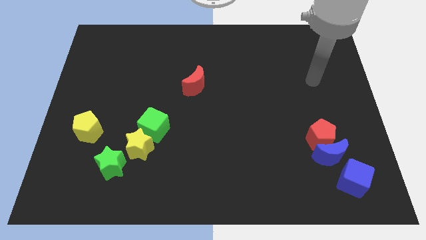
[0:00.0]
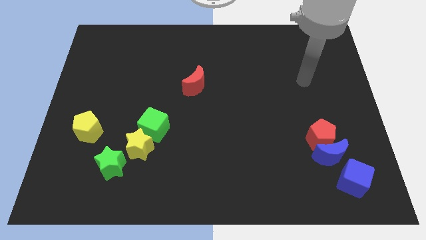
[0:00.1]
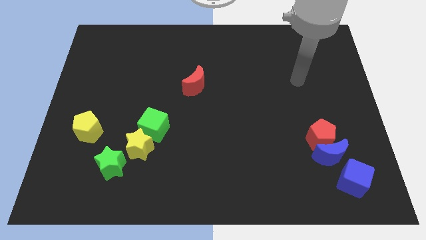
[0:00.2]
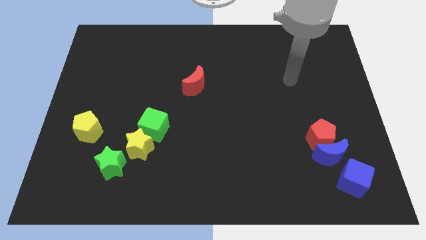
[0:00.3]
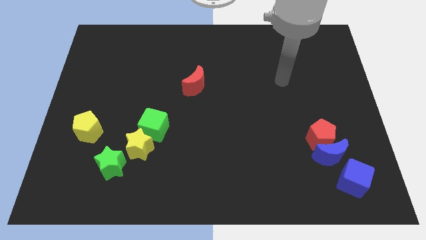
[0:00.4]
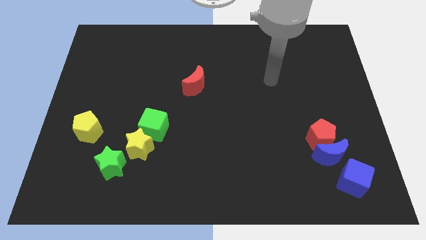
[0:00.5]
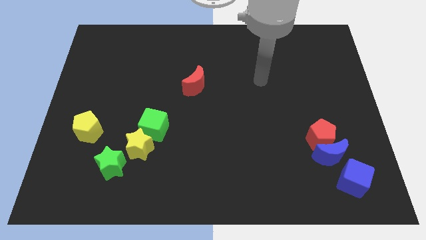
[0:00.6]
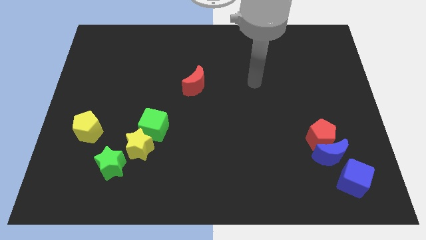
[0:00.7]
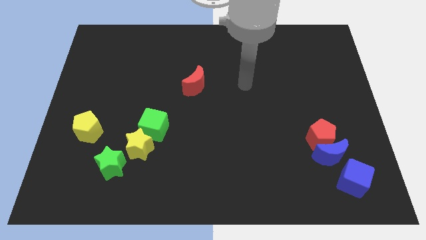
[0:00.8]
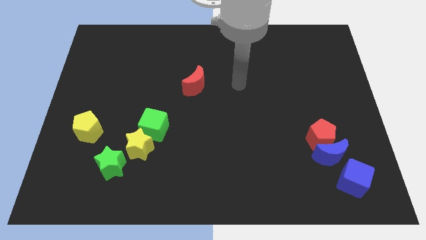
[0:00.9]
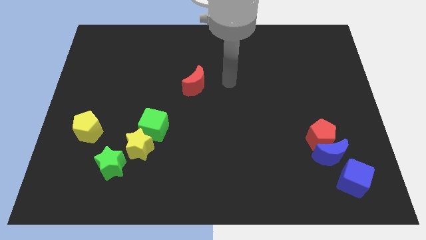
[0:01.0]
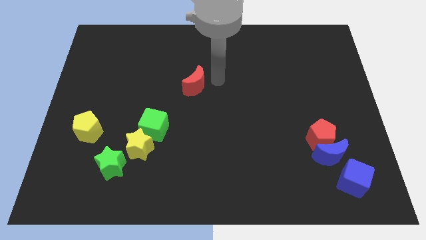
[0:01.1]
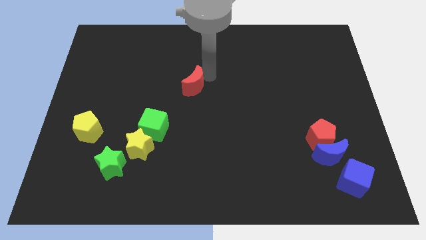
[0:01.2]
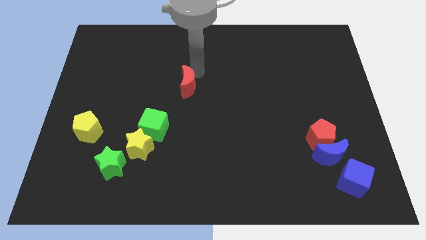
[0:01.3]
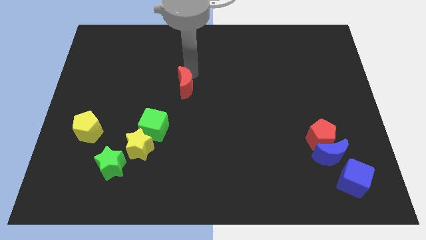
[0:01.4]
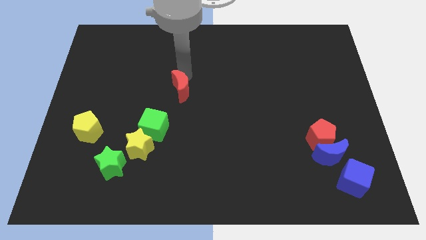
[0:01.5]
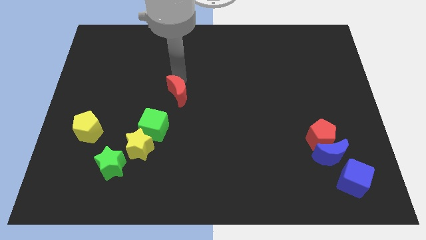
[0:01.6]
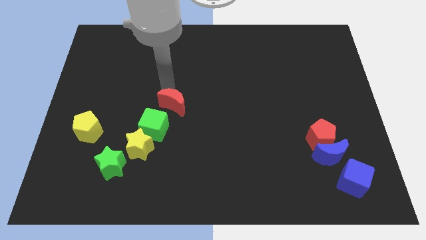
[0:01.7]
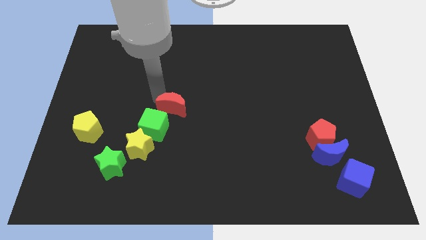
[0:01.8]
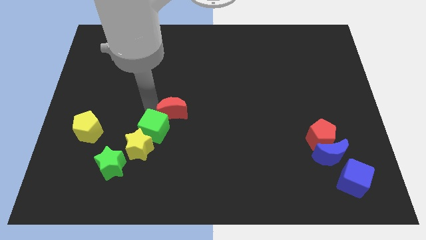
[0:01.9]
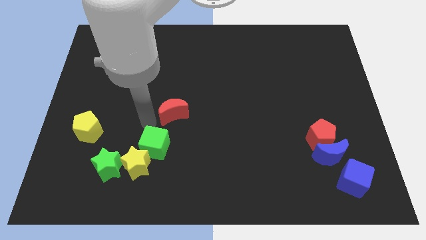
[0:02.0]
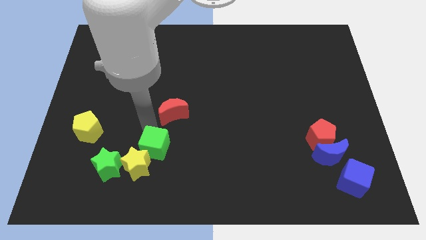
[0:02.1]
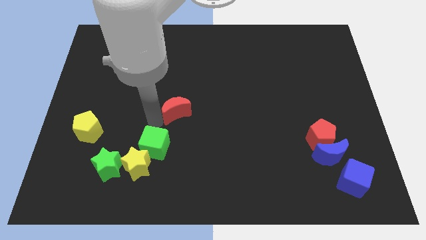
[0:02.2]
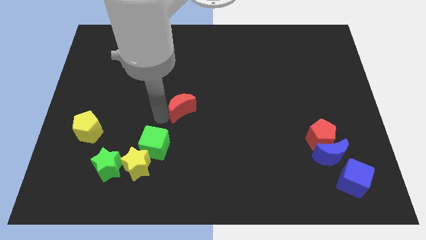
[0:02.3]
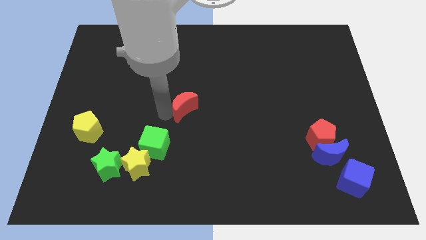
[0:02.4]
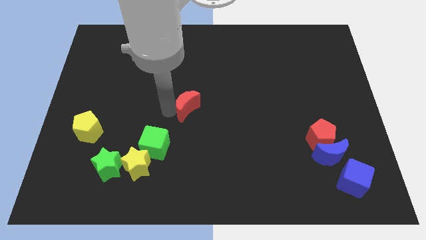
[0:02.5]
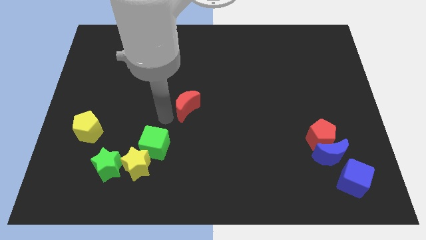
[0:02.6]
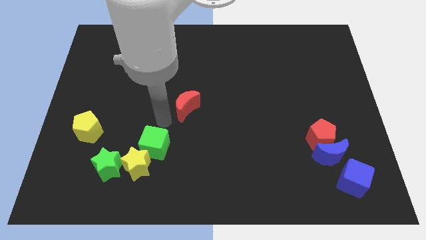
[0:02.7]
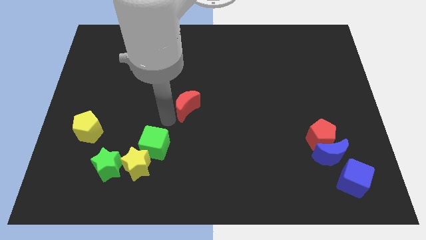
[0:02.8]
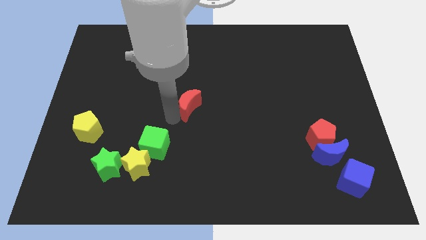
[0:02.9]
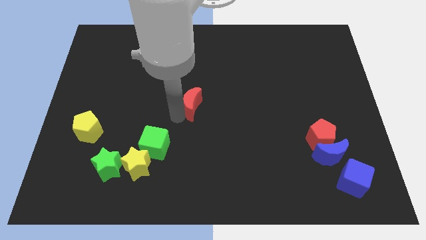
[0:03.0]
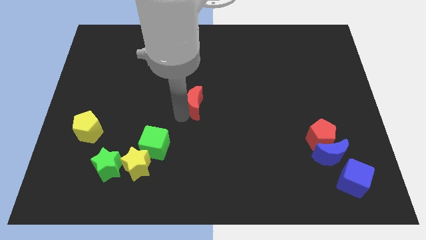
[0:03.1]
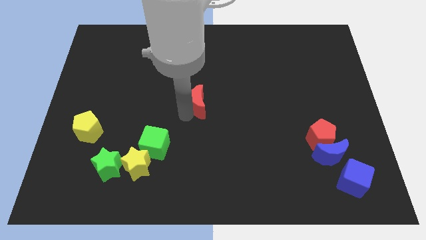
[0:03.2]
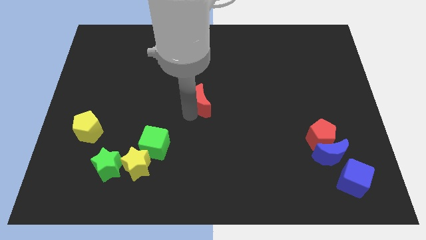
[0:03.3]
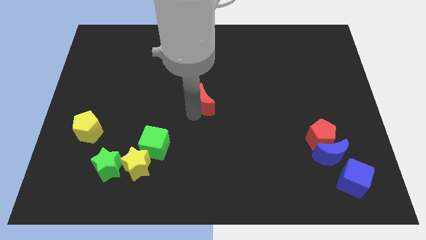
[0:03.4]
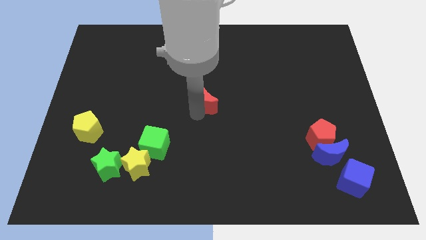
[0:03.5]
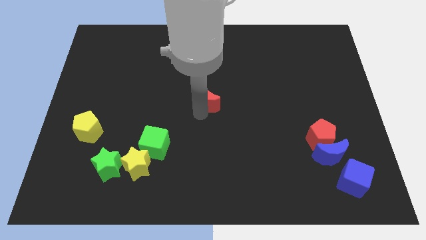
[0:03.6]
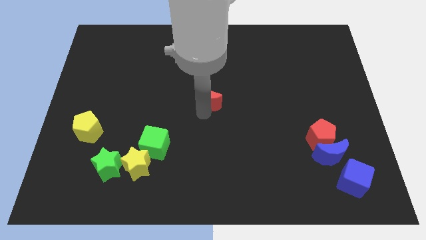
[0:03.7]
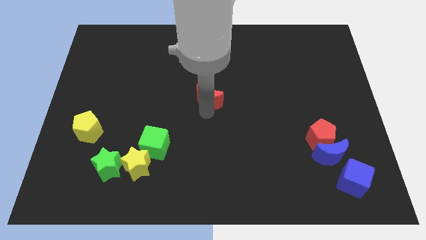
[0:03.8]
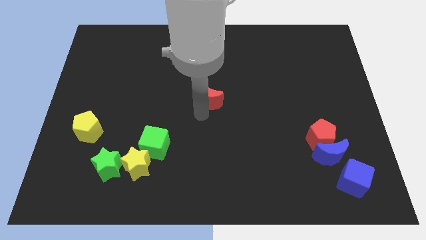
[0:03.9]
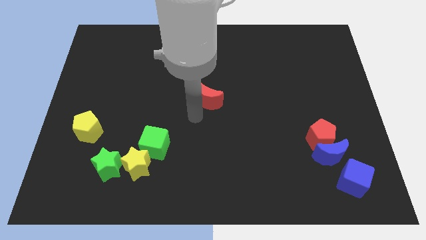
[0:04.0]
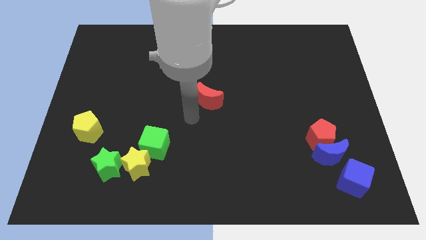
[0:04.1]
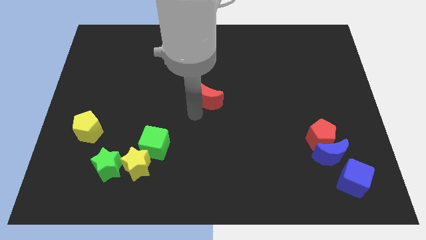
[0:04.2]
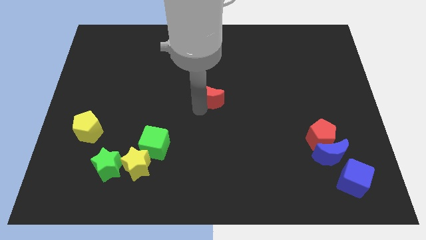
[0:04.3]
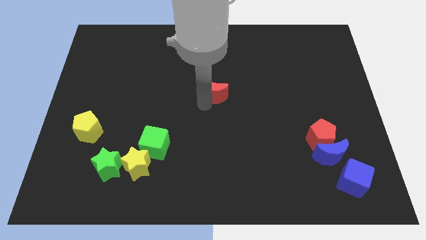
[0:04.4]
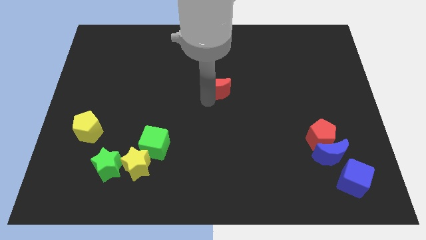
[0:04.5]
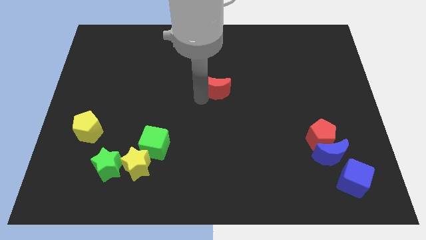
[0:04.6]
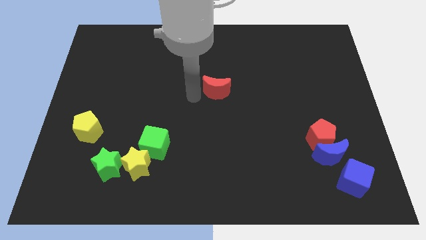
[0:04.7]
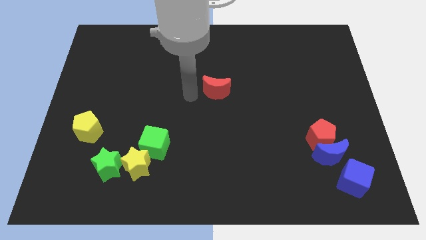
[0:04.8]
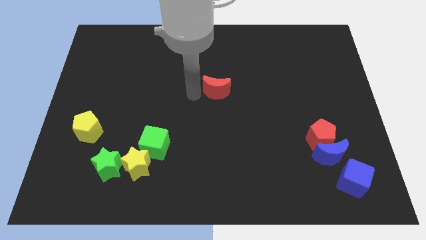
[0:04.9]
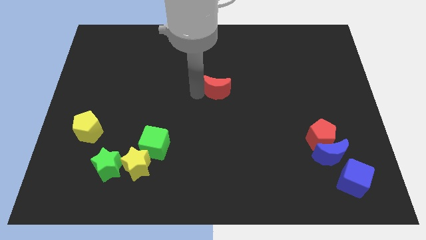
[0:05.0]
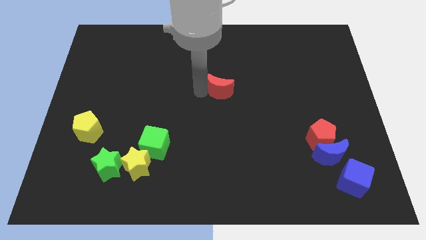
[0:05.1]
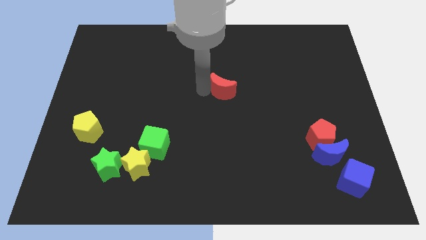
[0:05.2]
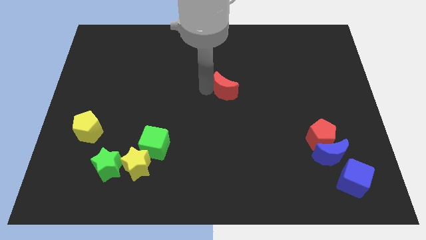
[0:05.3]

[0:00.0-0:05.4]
slide the red moon to the right a little

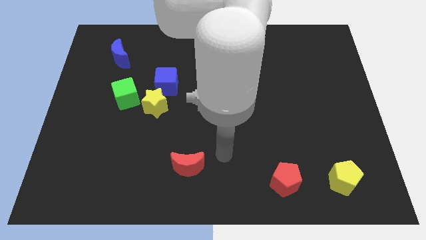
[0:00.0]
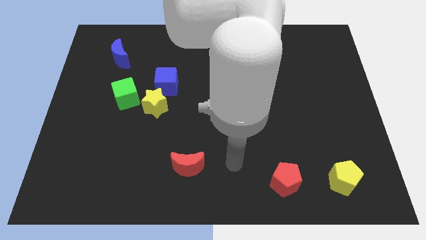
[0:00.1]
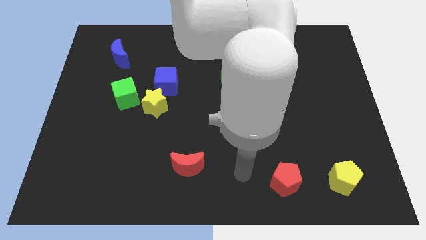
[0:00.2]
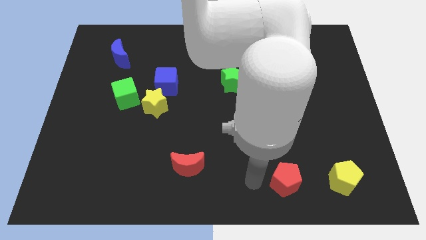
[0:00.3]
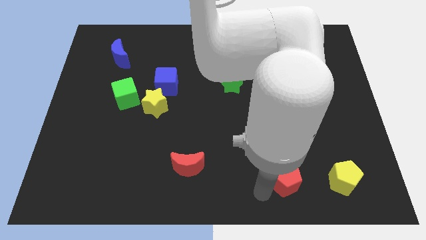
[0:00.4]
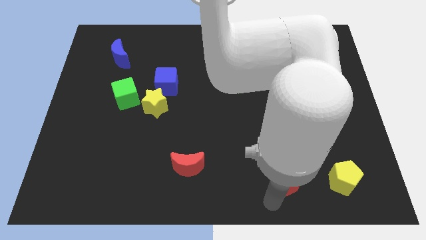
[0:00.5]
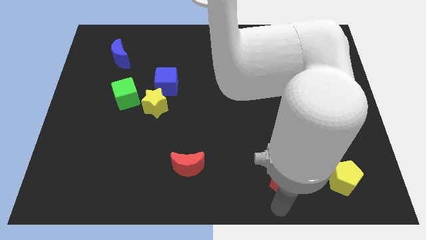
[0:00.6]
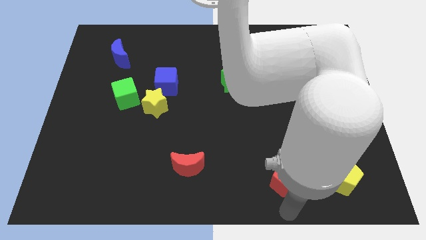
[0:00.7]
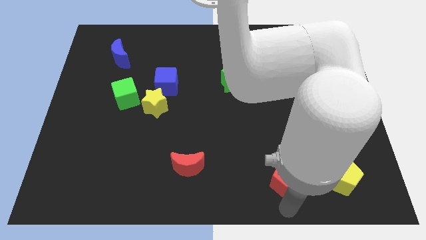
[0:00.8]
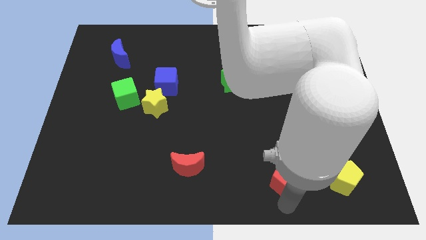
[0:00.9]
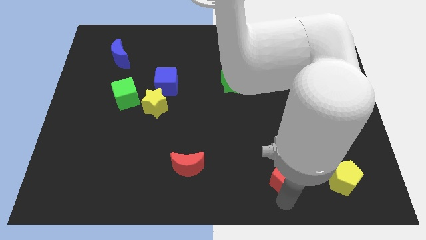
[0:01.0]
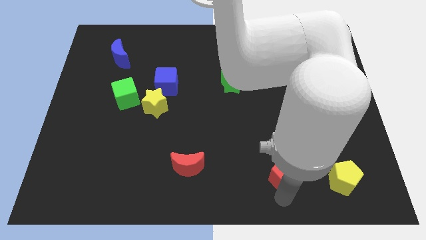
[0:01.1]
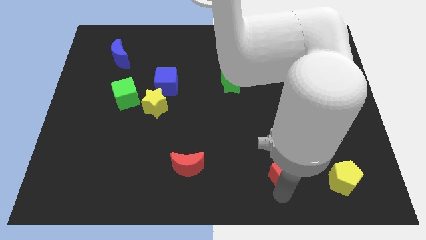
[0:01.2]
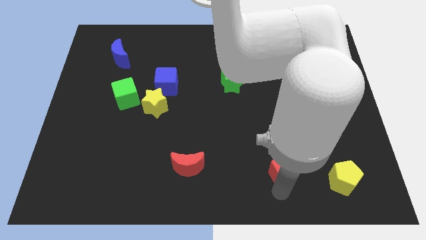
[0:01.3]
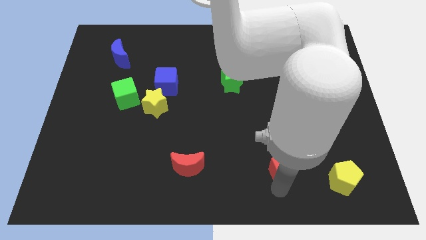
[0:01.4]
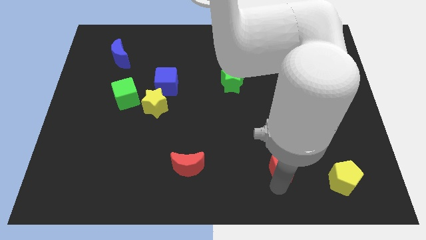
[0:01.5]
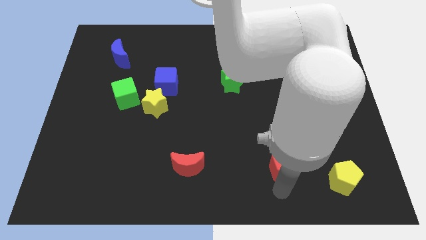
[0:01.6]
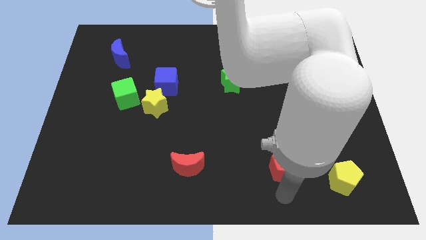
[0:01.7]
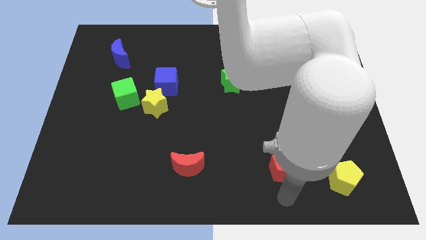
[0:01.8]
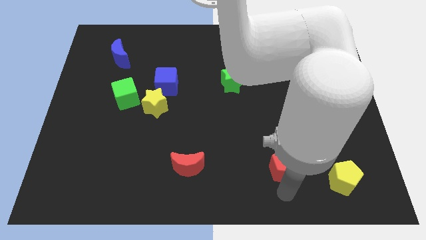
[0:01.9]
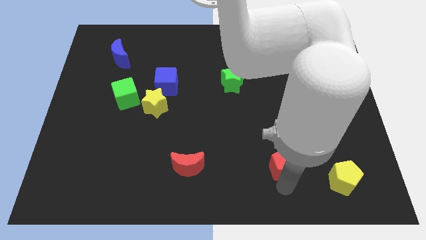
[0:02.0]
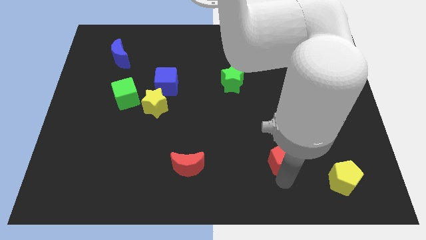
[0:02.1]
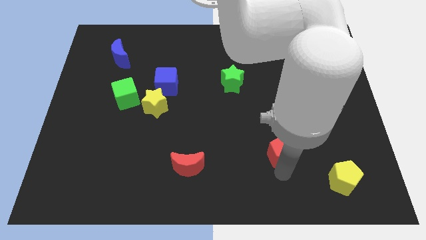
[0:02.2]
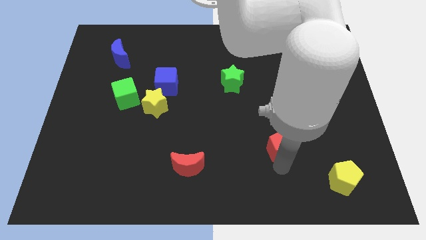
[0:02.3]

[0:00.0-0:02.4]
slightly push the red pentagon up
